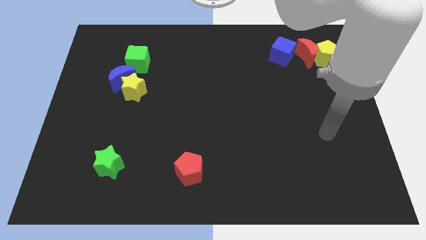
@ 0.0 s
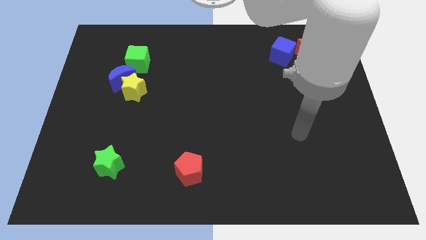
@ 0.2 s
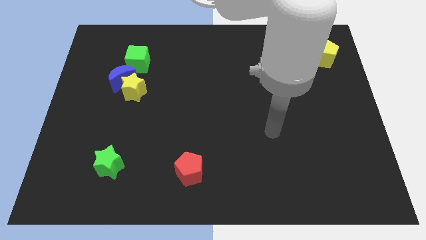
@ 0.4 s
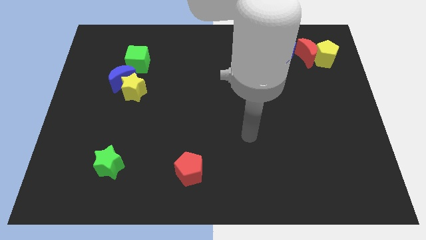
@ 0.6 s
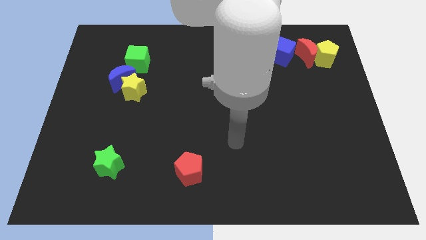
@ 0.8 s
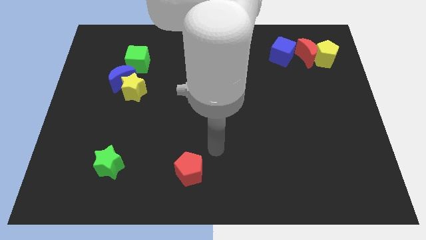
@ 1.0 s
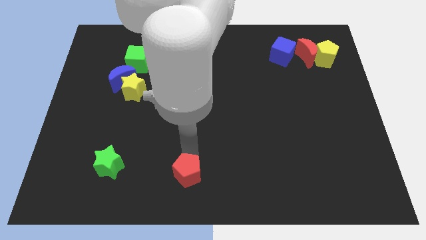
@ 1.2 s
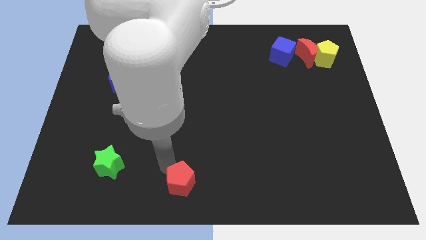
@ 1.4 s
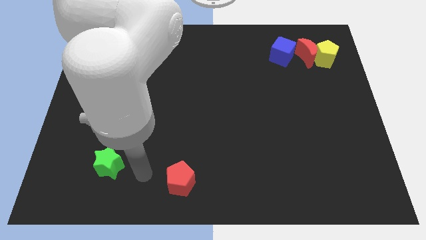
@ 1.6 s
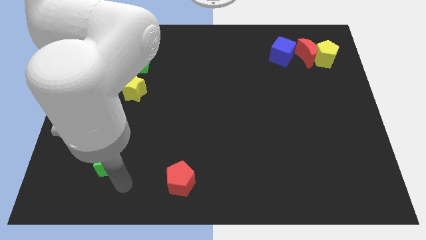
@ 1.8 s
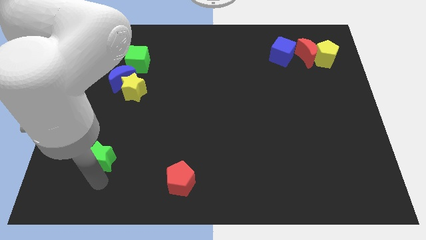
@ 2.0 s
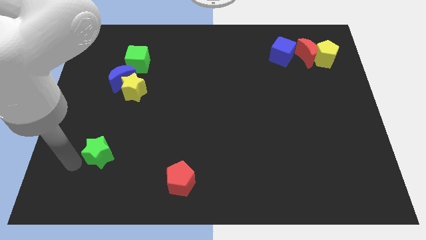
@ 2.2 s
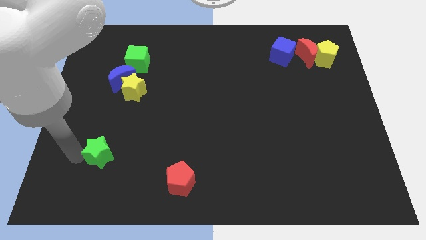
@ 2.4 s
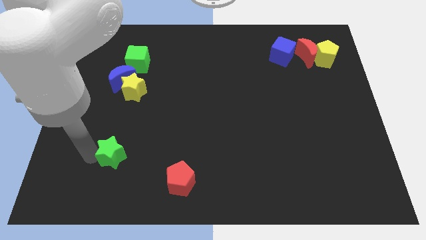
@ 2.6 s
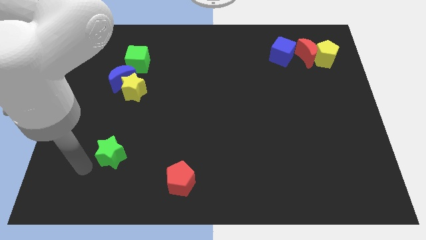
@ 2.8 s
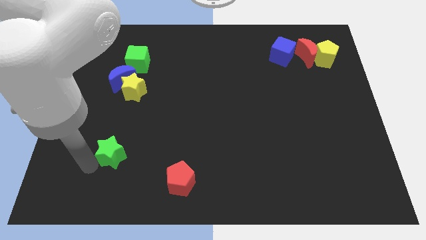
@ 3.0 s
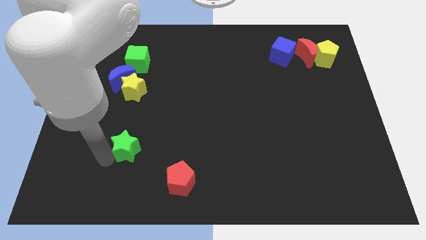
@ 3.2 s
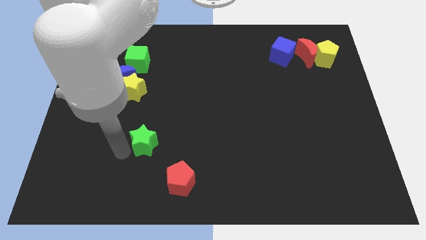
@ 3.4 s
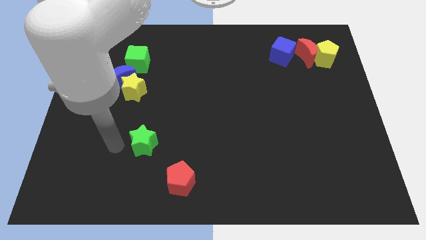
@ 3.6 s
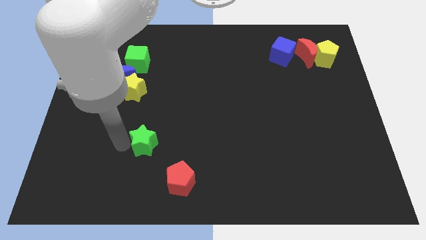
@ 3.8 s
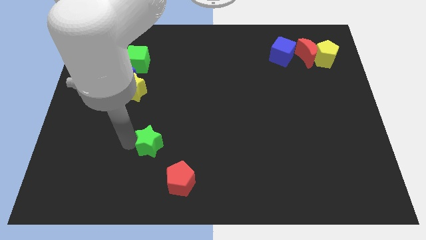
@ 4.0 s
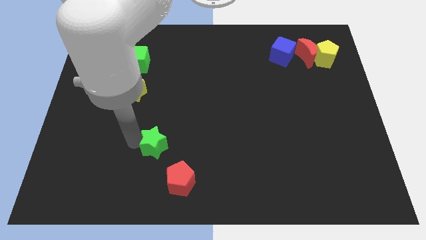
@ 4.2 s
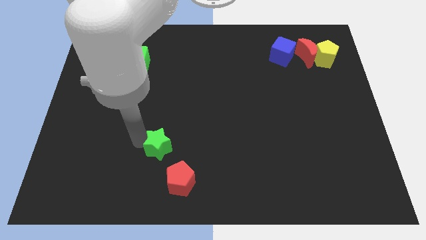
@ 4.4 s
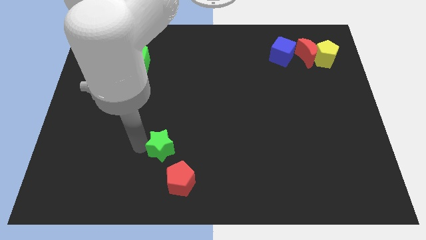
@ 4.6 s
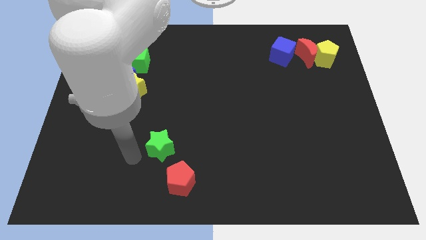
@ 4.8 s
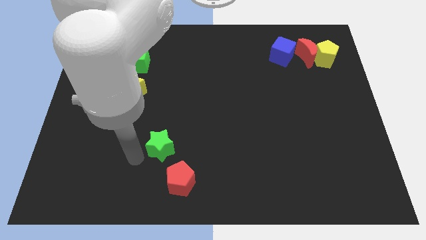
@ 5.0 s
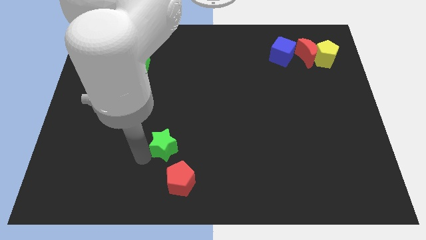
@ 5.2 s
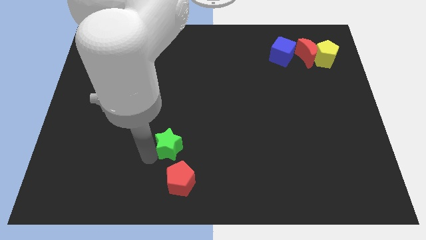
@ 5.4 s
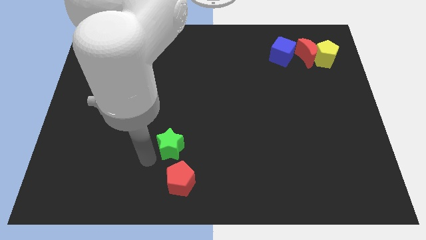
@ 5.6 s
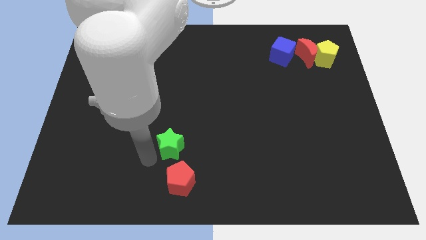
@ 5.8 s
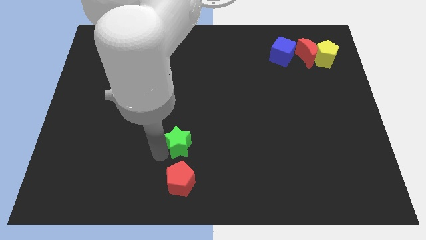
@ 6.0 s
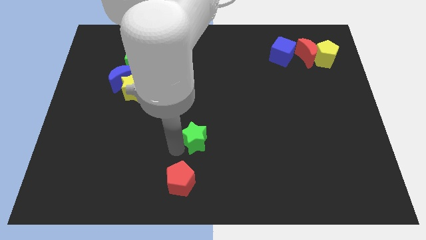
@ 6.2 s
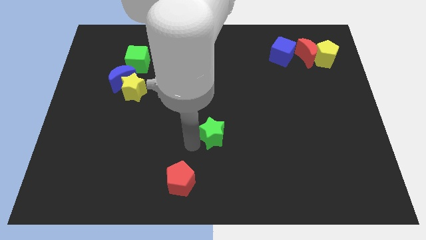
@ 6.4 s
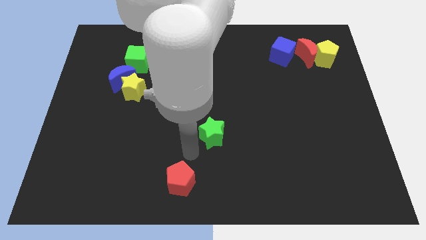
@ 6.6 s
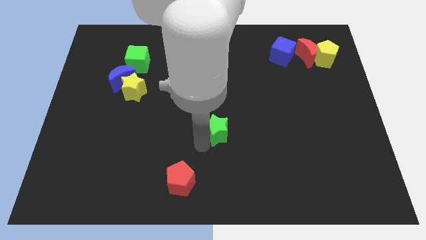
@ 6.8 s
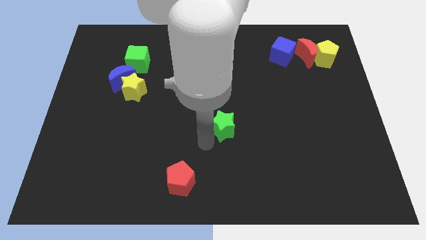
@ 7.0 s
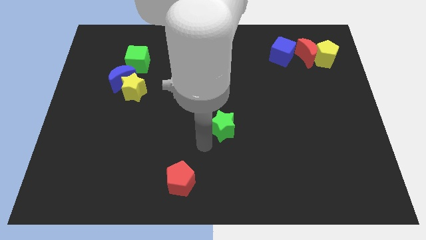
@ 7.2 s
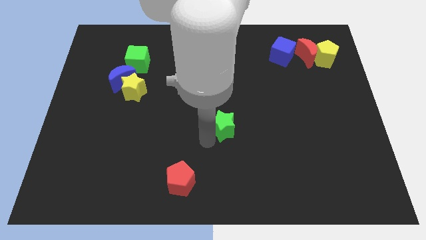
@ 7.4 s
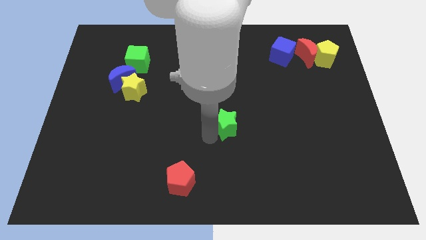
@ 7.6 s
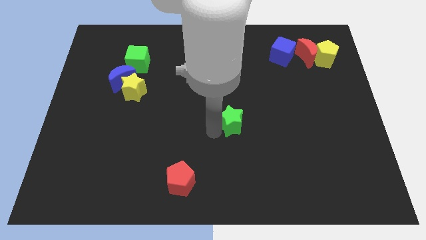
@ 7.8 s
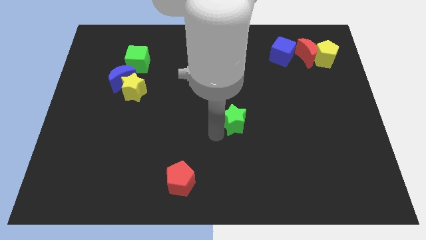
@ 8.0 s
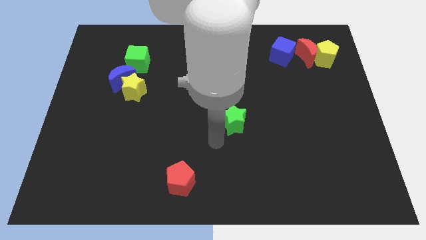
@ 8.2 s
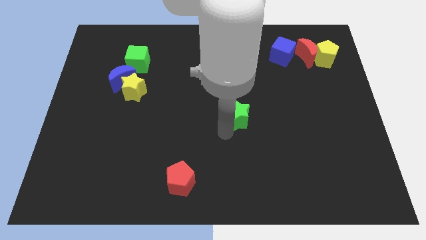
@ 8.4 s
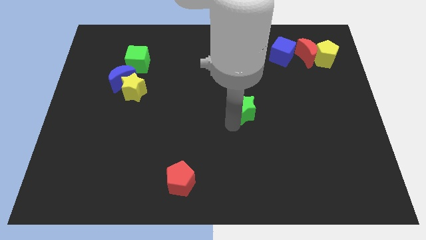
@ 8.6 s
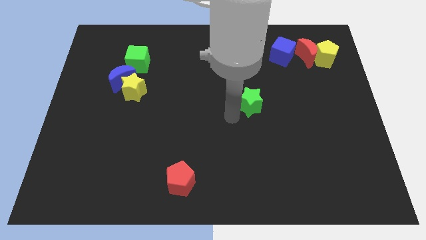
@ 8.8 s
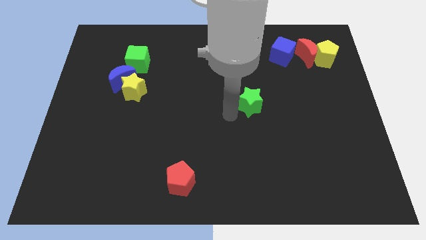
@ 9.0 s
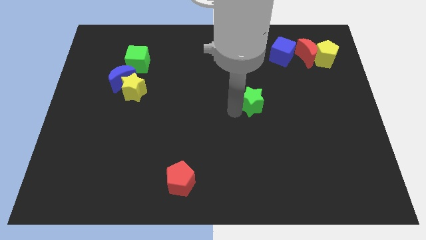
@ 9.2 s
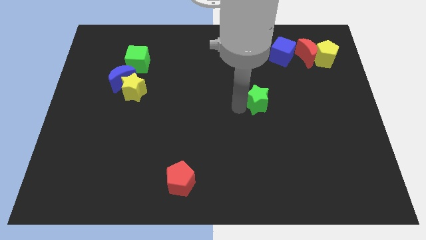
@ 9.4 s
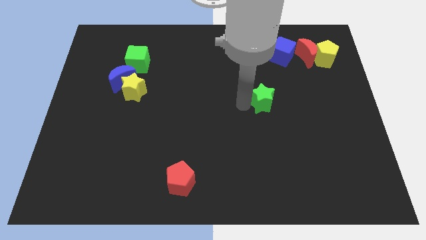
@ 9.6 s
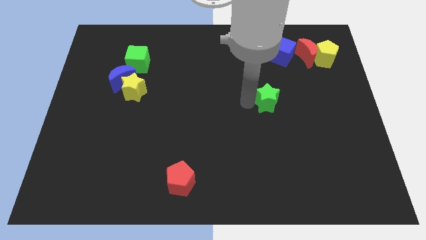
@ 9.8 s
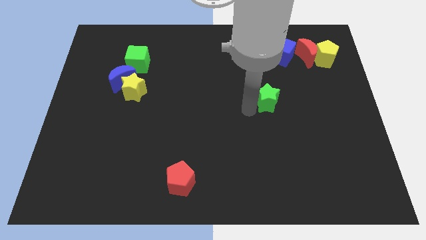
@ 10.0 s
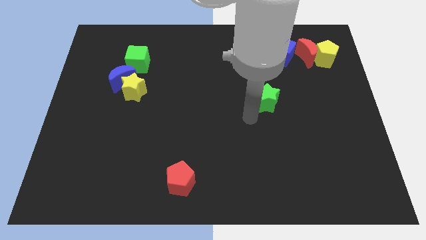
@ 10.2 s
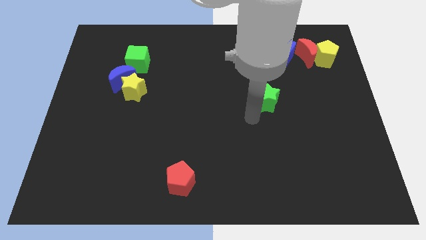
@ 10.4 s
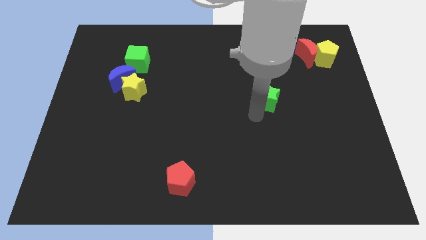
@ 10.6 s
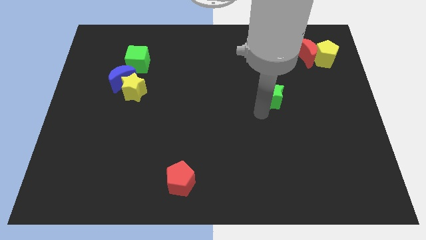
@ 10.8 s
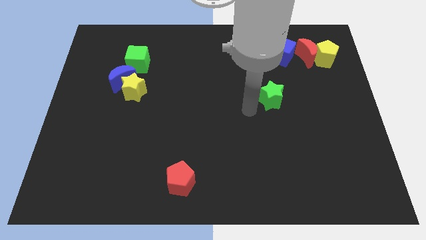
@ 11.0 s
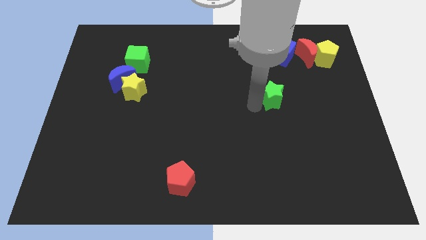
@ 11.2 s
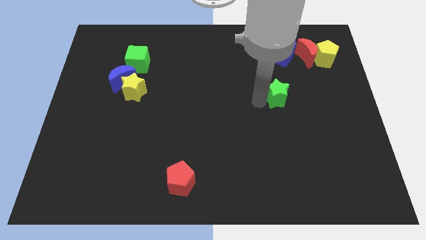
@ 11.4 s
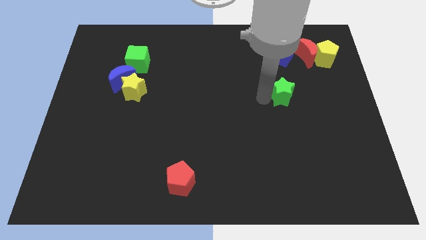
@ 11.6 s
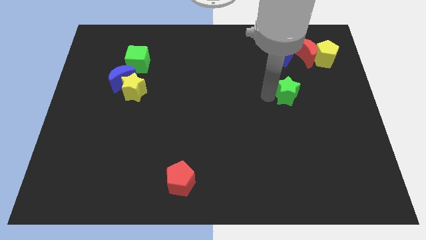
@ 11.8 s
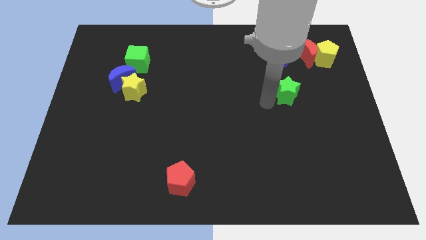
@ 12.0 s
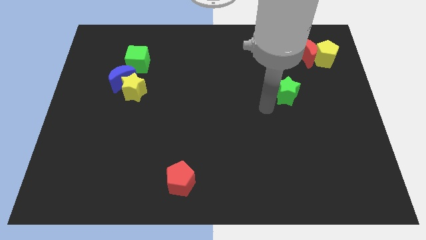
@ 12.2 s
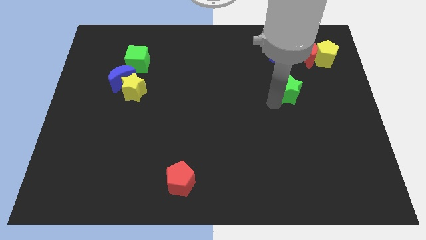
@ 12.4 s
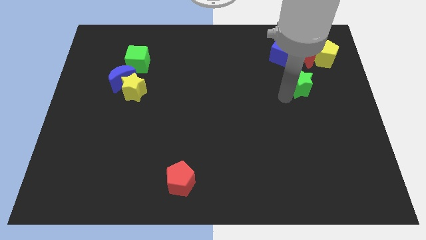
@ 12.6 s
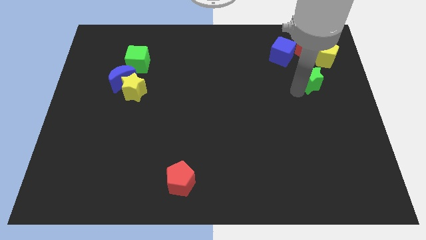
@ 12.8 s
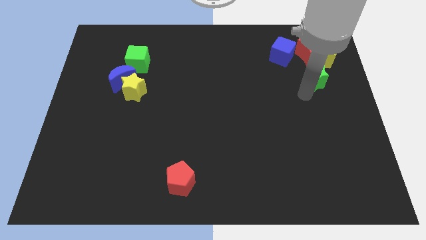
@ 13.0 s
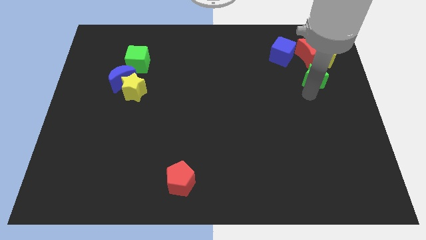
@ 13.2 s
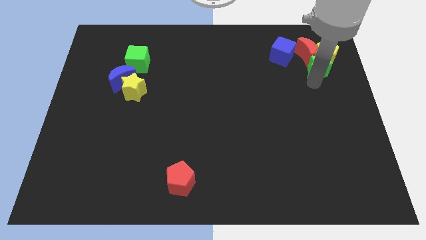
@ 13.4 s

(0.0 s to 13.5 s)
push the green star next to the yellow pentagon

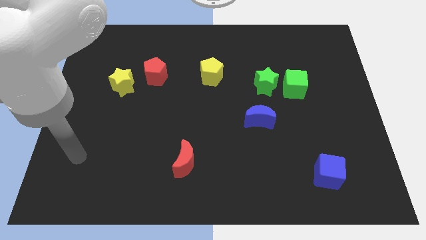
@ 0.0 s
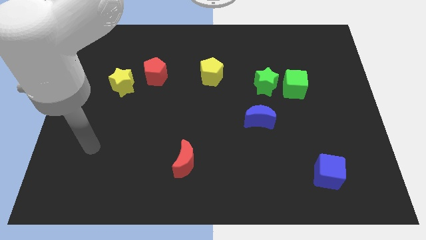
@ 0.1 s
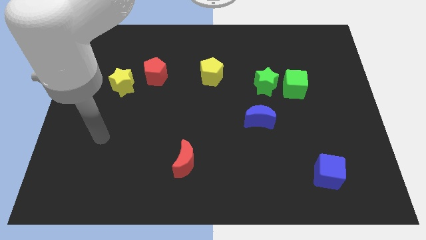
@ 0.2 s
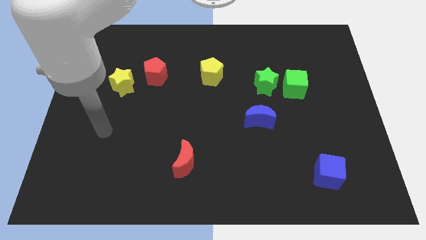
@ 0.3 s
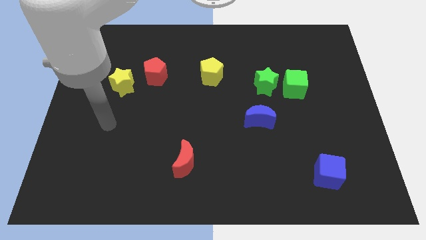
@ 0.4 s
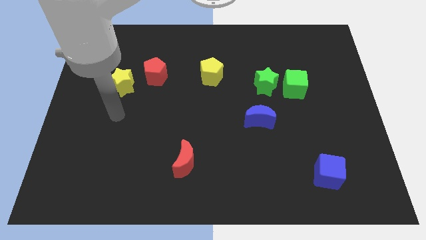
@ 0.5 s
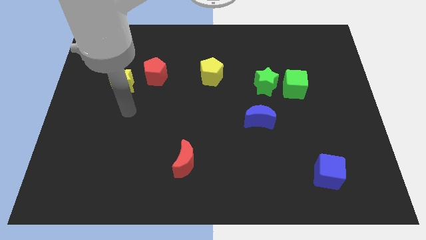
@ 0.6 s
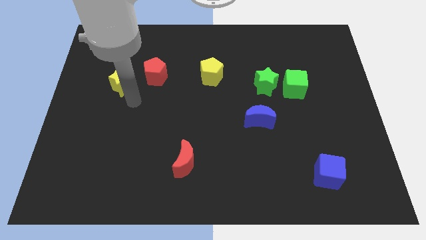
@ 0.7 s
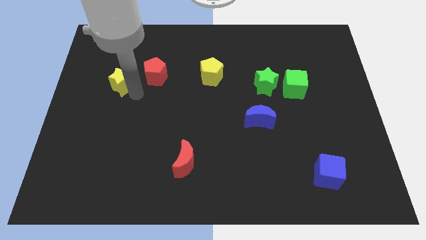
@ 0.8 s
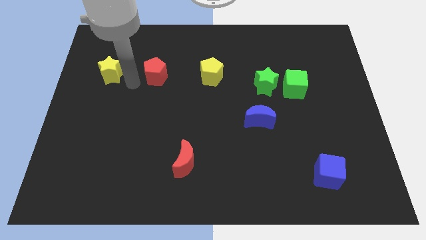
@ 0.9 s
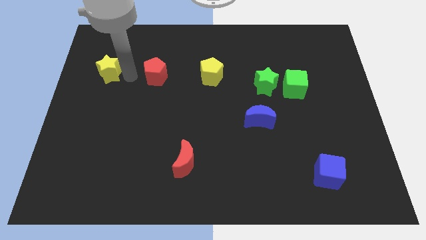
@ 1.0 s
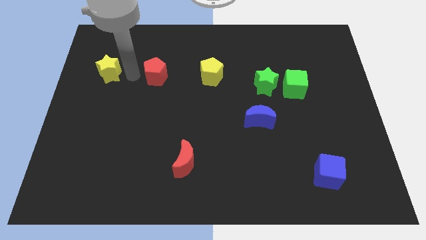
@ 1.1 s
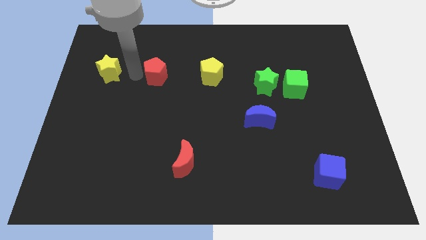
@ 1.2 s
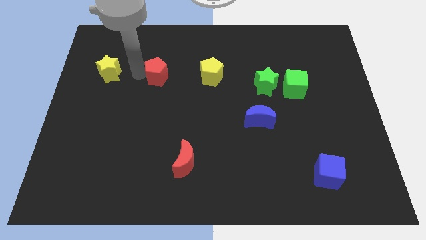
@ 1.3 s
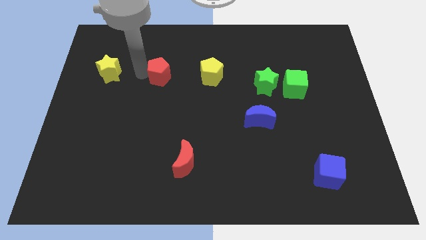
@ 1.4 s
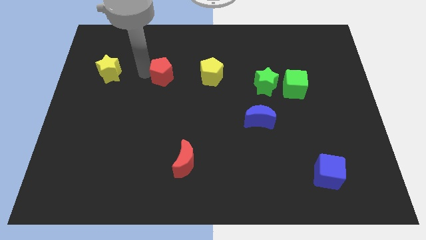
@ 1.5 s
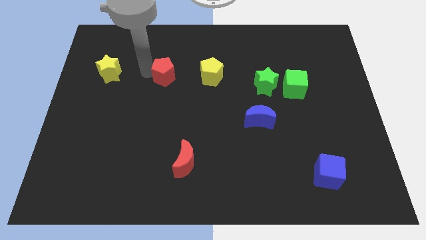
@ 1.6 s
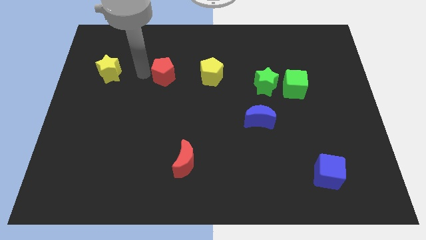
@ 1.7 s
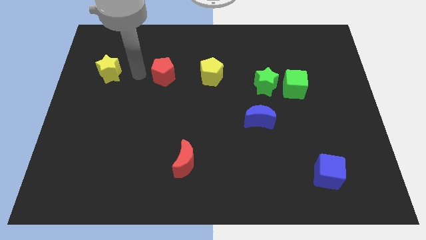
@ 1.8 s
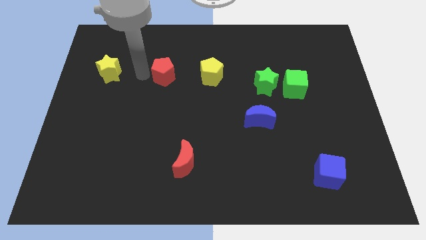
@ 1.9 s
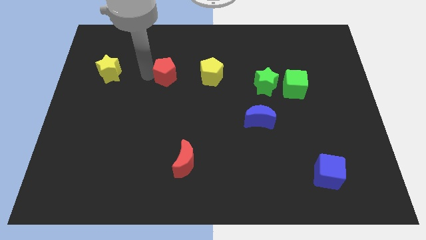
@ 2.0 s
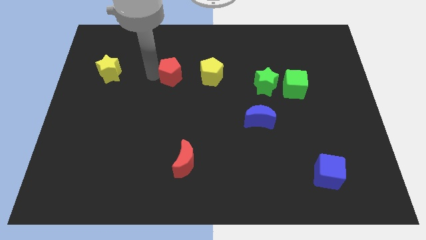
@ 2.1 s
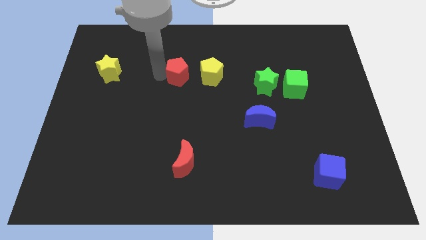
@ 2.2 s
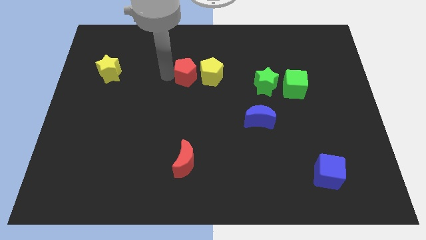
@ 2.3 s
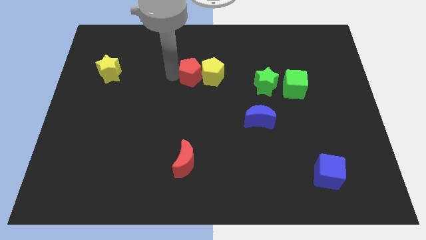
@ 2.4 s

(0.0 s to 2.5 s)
slide the red pentagon close to the yellow pentagon
